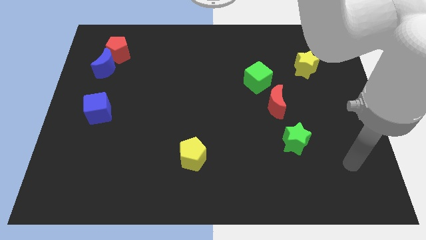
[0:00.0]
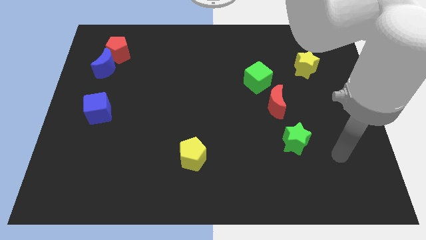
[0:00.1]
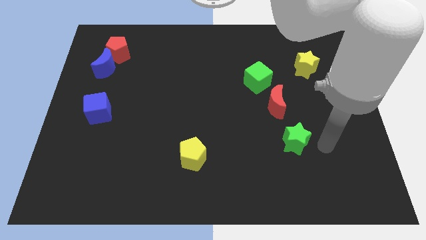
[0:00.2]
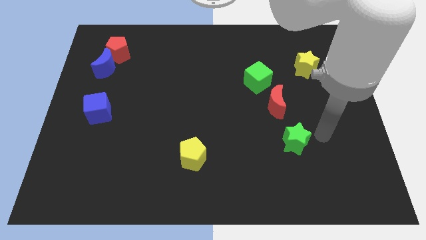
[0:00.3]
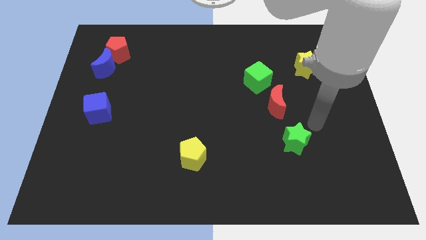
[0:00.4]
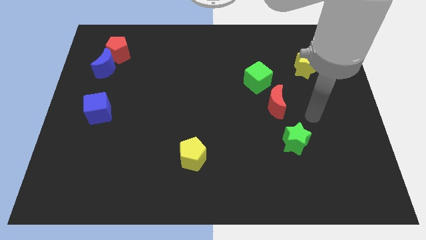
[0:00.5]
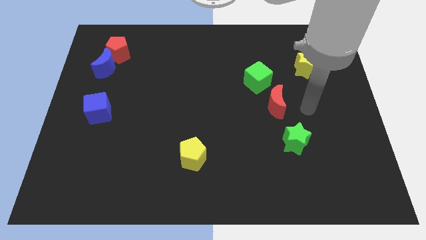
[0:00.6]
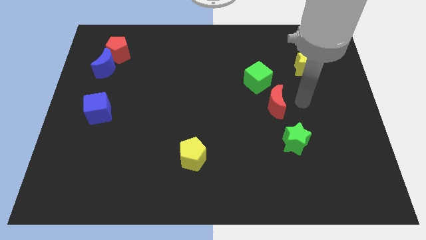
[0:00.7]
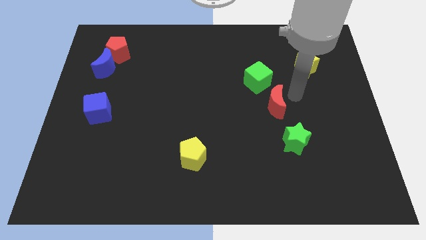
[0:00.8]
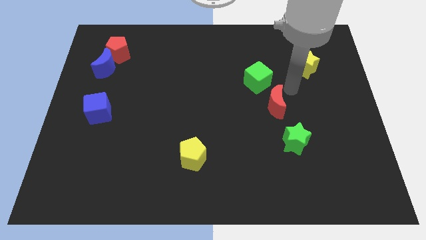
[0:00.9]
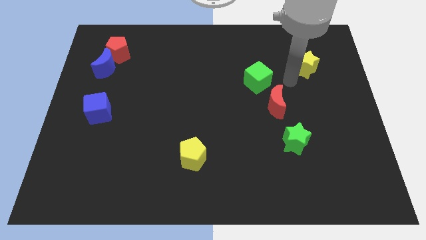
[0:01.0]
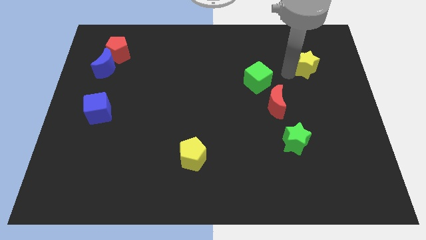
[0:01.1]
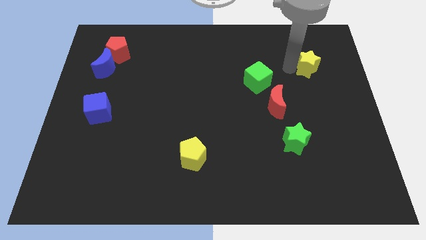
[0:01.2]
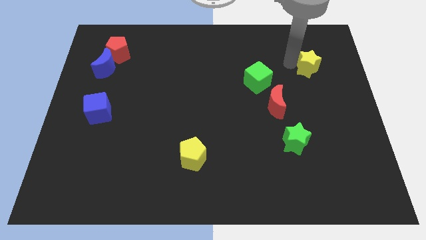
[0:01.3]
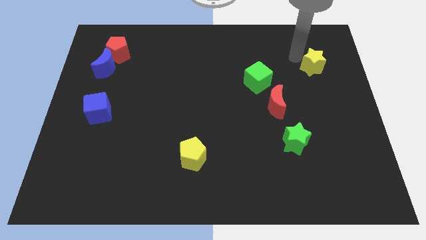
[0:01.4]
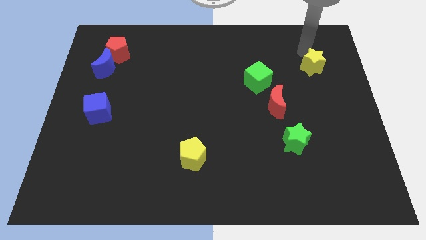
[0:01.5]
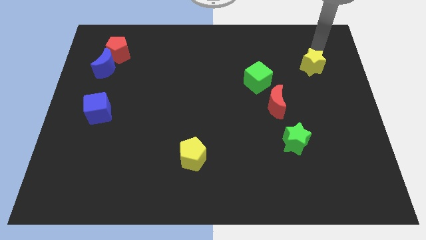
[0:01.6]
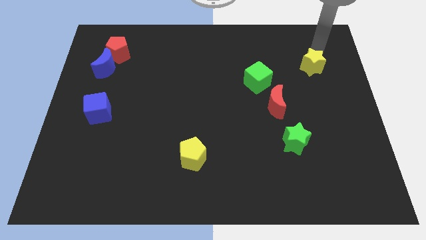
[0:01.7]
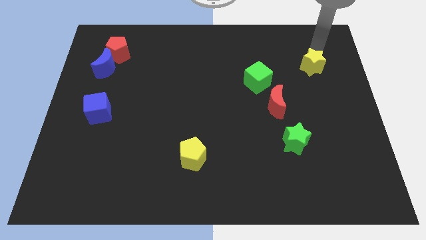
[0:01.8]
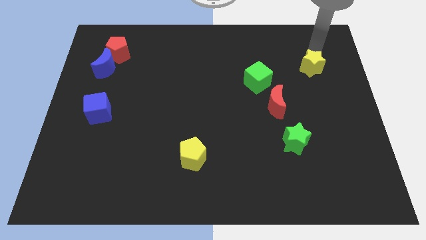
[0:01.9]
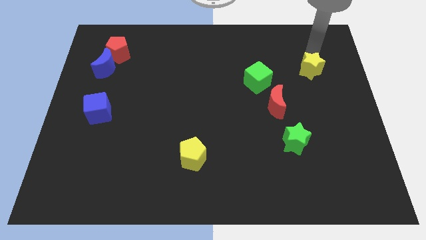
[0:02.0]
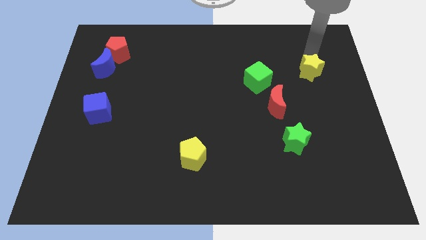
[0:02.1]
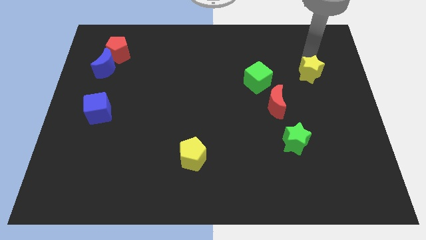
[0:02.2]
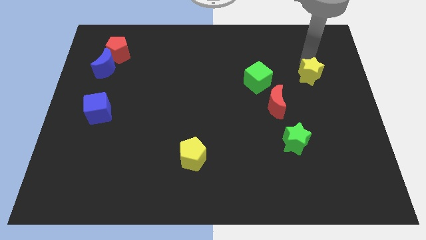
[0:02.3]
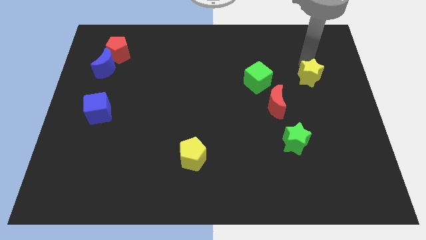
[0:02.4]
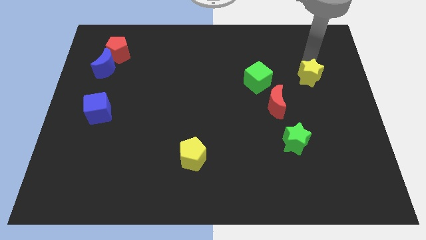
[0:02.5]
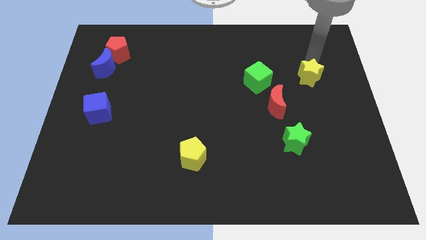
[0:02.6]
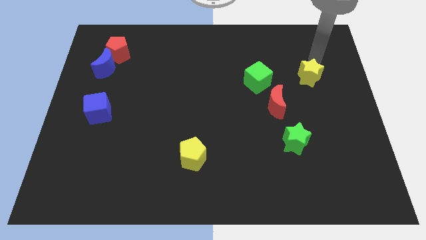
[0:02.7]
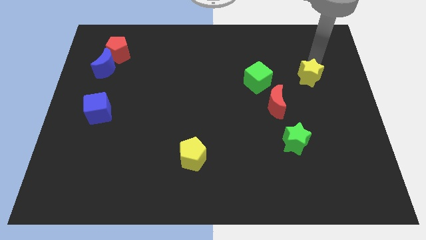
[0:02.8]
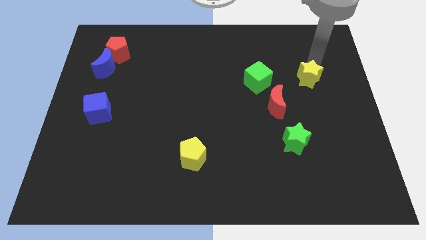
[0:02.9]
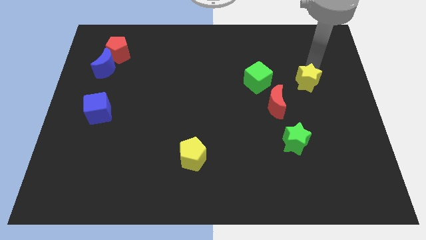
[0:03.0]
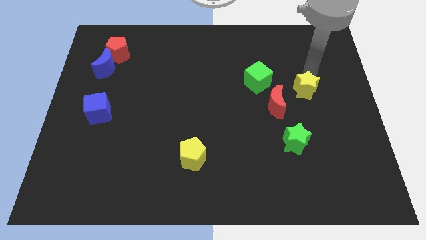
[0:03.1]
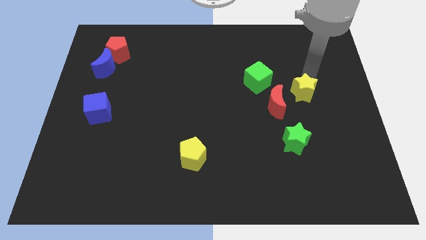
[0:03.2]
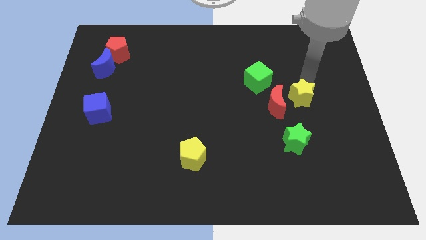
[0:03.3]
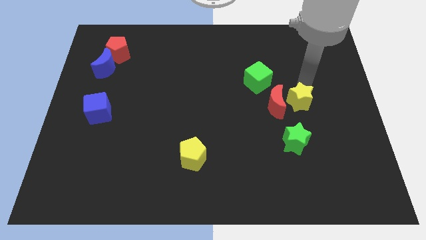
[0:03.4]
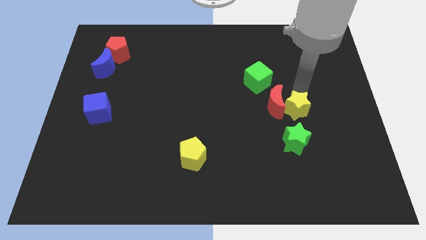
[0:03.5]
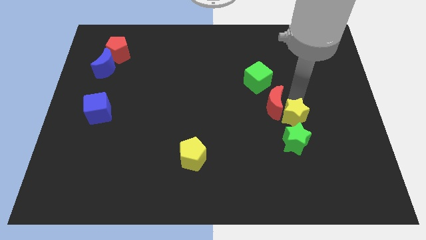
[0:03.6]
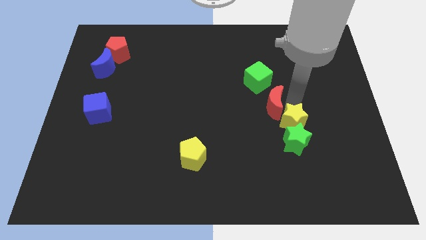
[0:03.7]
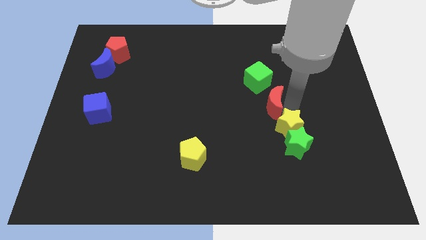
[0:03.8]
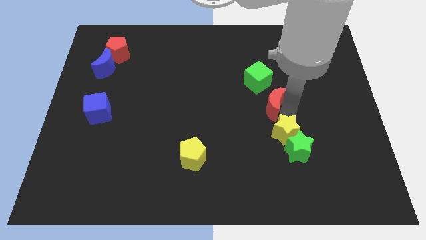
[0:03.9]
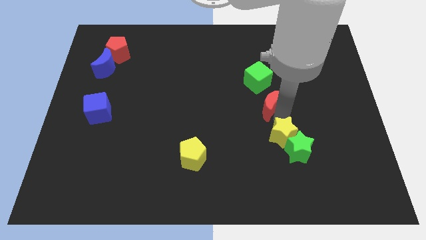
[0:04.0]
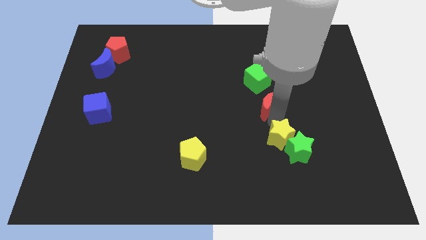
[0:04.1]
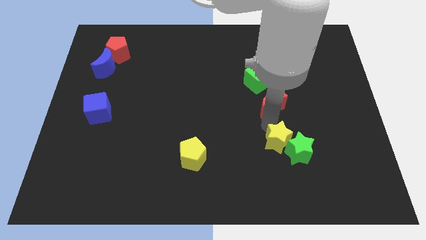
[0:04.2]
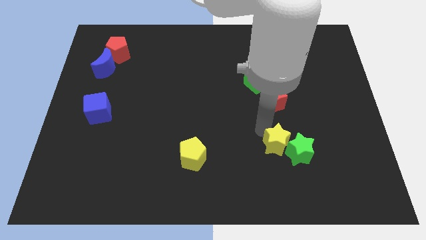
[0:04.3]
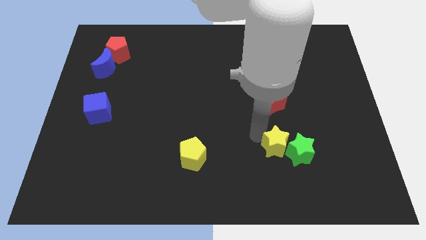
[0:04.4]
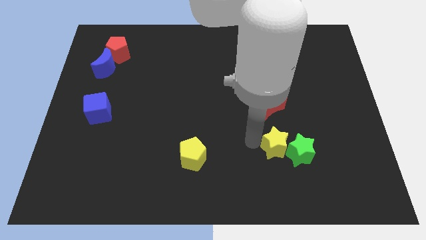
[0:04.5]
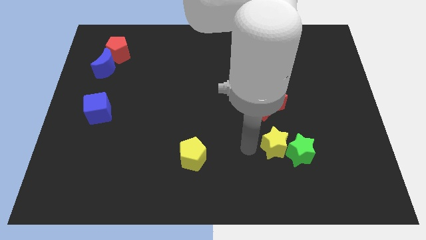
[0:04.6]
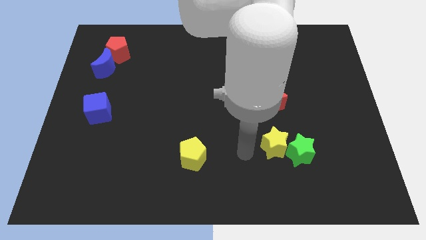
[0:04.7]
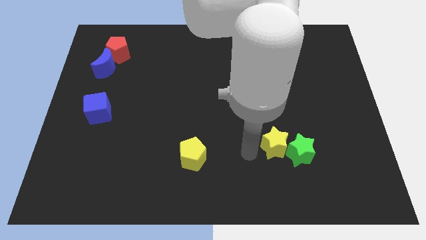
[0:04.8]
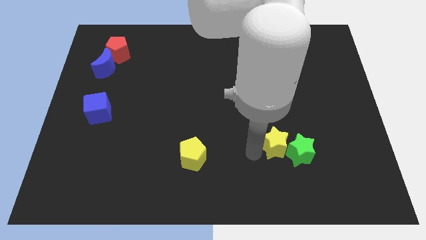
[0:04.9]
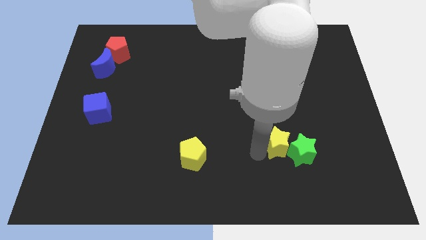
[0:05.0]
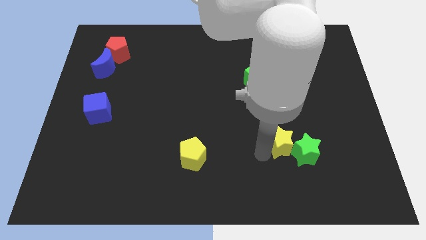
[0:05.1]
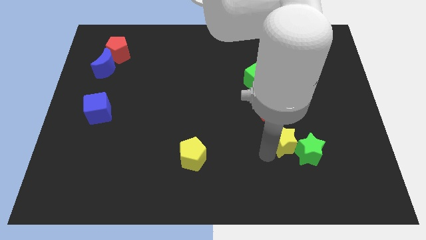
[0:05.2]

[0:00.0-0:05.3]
move the yellow star downwards

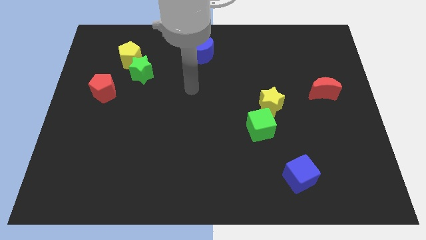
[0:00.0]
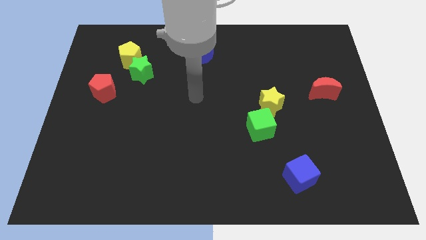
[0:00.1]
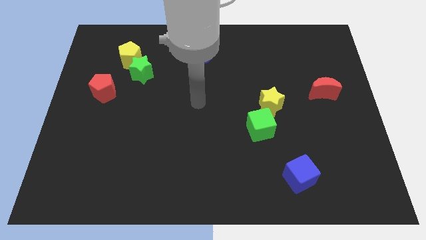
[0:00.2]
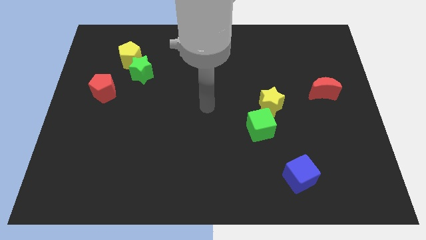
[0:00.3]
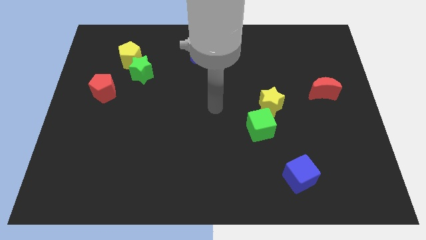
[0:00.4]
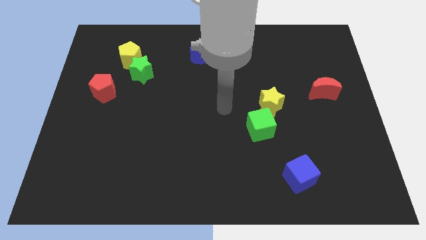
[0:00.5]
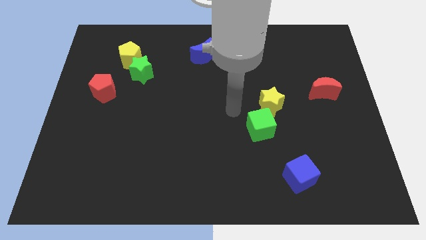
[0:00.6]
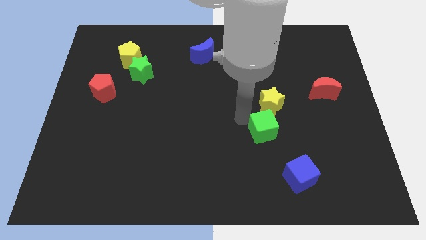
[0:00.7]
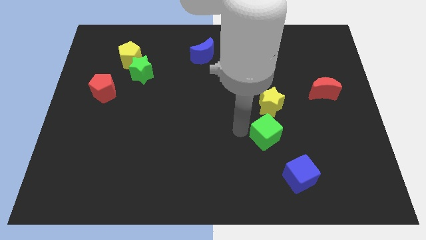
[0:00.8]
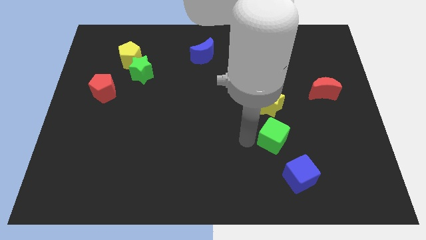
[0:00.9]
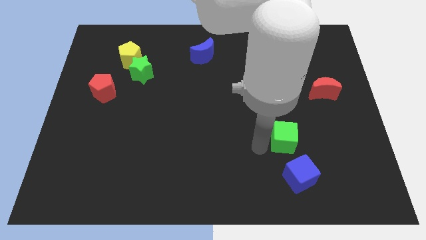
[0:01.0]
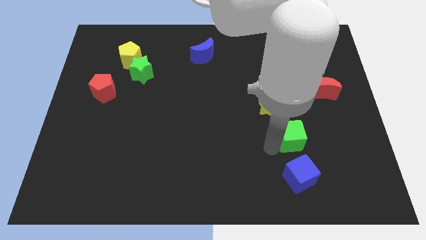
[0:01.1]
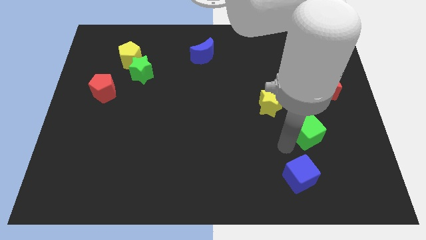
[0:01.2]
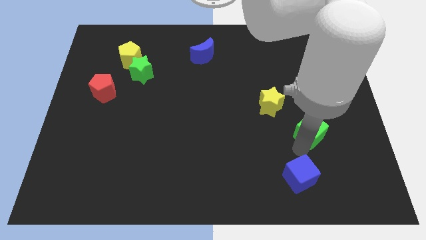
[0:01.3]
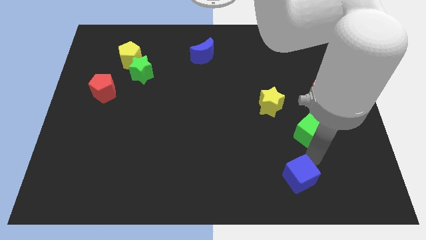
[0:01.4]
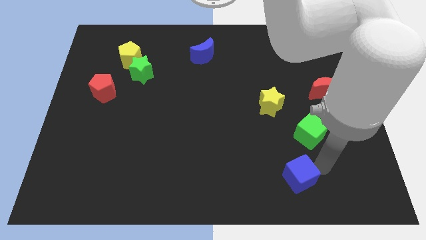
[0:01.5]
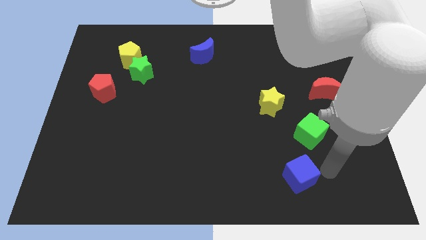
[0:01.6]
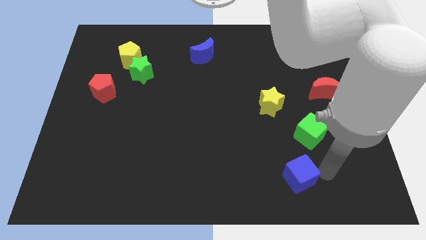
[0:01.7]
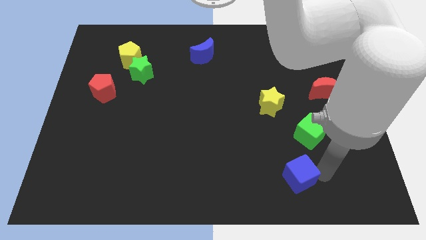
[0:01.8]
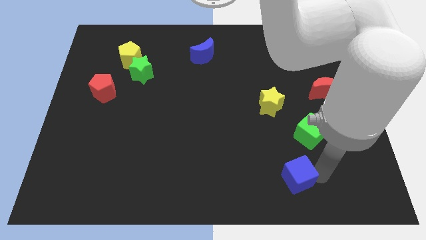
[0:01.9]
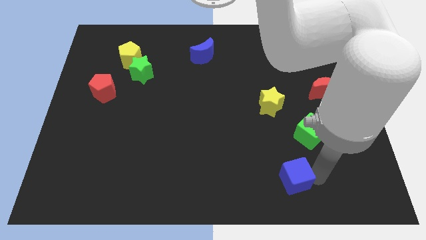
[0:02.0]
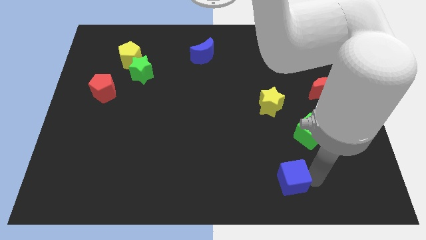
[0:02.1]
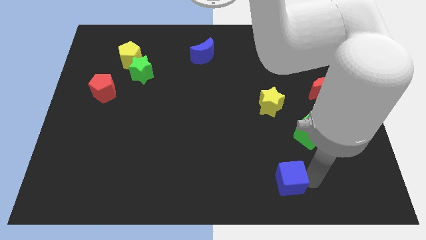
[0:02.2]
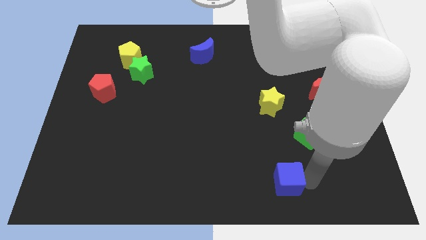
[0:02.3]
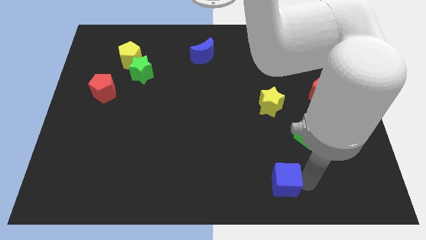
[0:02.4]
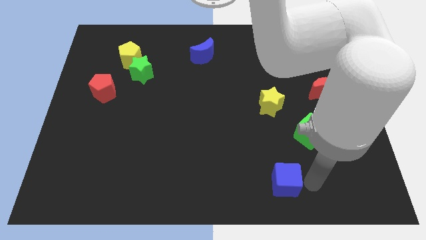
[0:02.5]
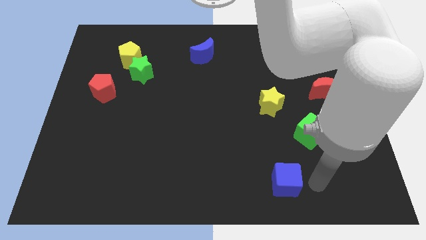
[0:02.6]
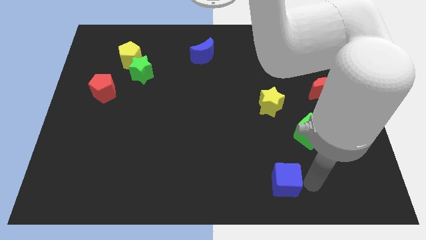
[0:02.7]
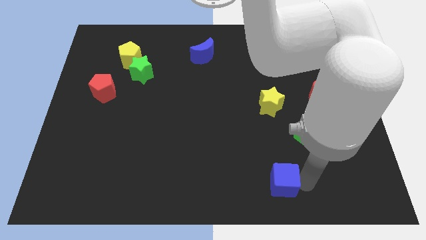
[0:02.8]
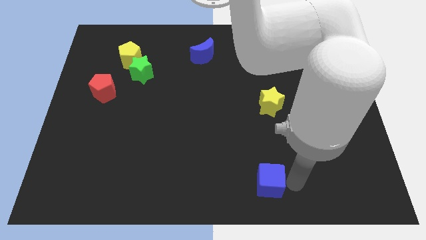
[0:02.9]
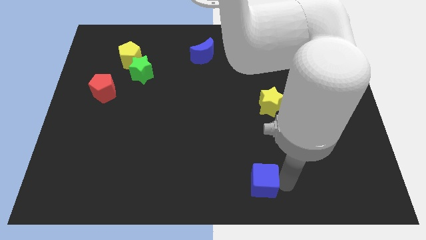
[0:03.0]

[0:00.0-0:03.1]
slide the blue cube to the left a little
